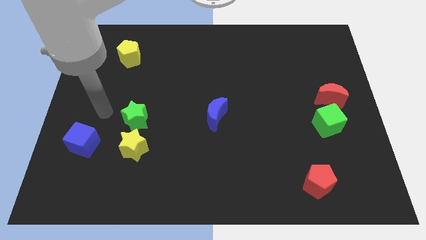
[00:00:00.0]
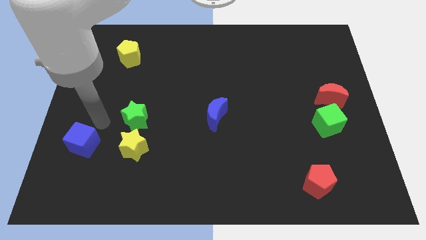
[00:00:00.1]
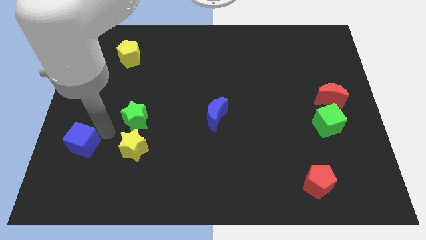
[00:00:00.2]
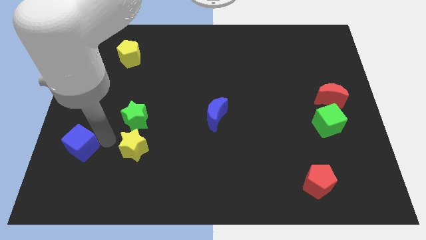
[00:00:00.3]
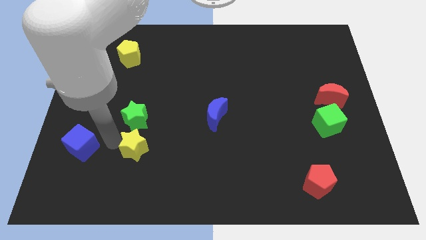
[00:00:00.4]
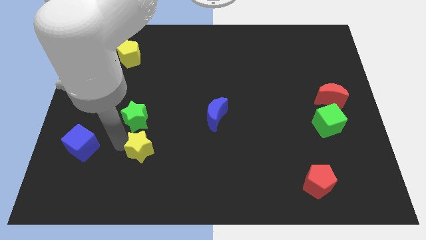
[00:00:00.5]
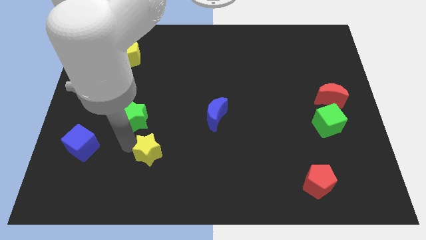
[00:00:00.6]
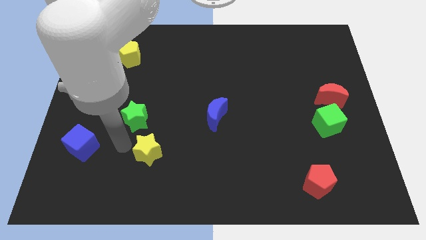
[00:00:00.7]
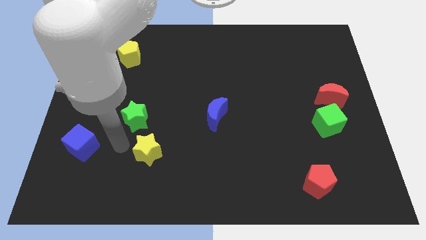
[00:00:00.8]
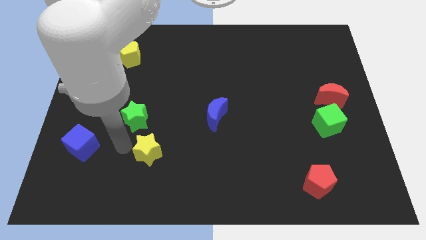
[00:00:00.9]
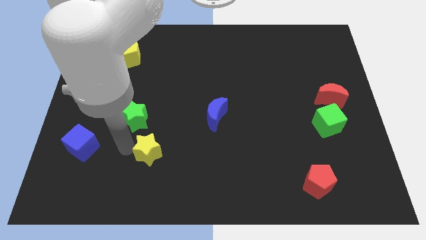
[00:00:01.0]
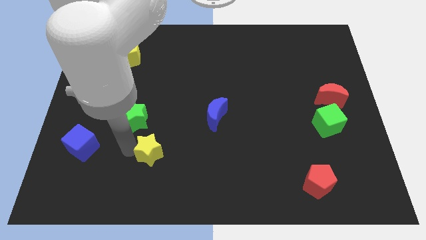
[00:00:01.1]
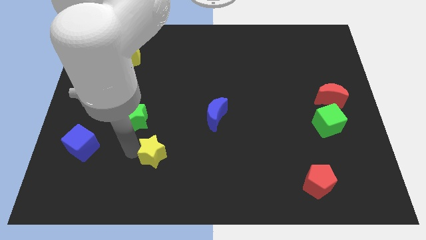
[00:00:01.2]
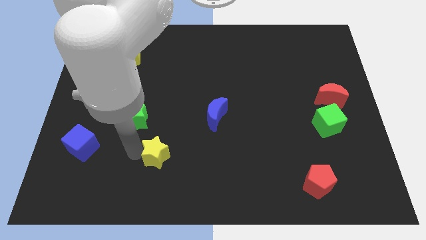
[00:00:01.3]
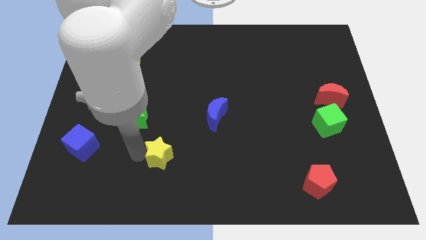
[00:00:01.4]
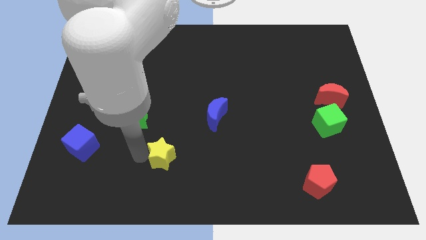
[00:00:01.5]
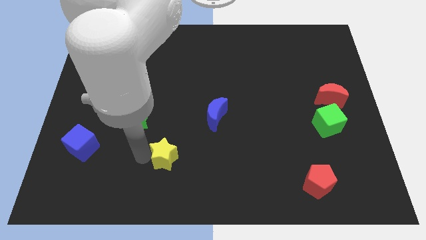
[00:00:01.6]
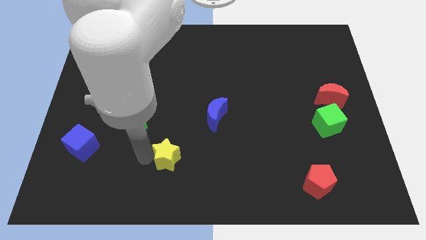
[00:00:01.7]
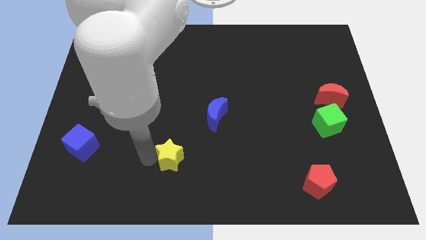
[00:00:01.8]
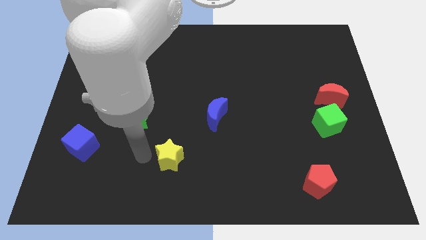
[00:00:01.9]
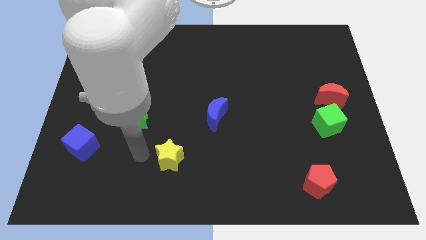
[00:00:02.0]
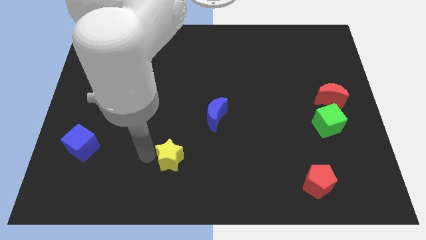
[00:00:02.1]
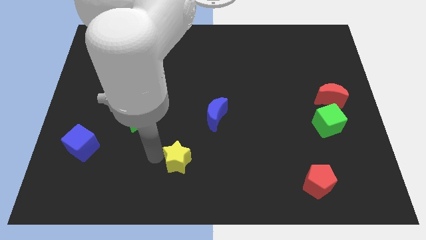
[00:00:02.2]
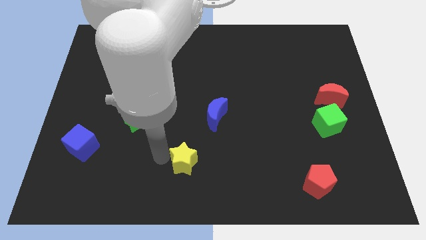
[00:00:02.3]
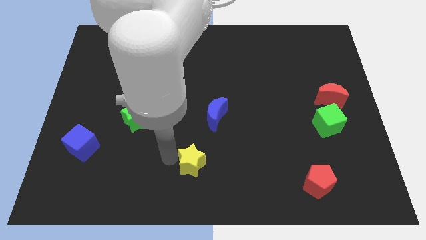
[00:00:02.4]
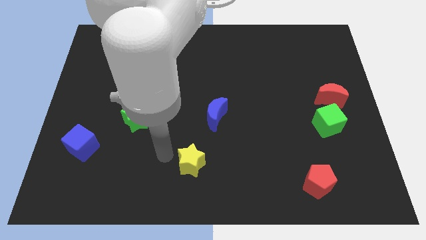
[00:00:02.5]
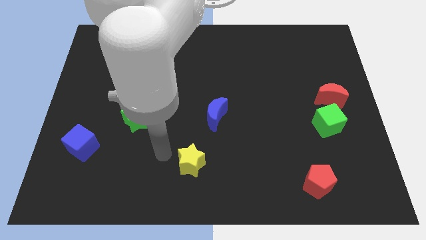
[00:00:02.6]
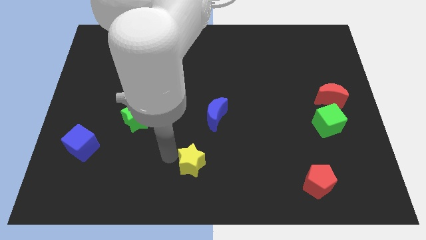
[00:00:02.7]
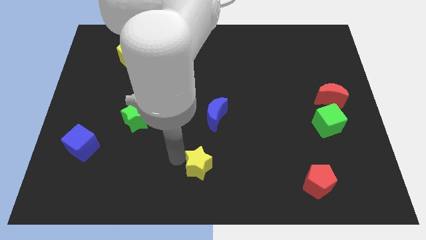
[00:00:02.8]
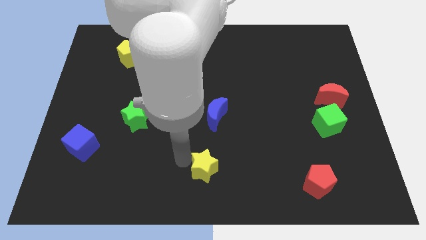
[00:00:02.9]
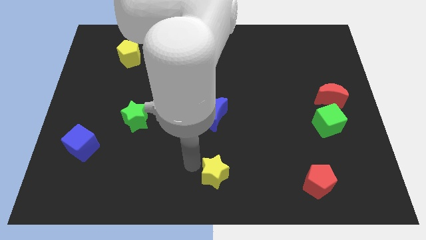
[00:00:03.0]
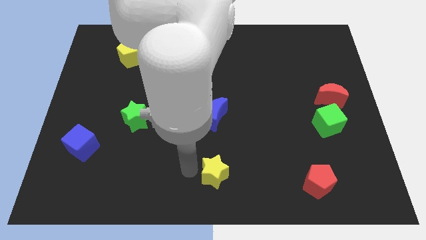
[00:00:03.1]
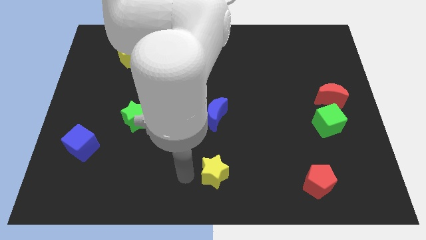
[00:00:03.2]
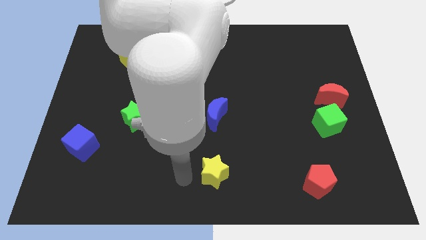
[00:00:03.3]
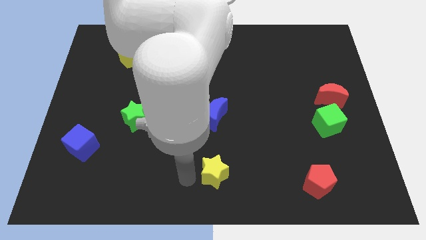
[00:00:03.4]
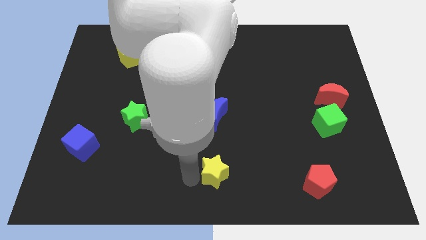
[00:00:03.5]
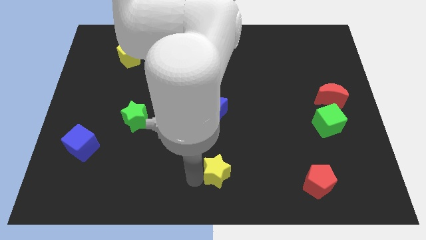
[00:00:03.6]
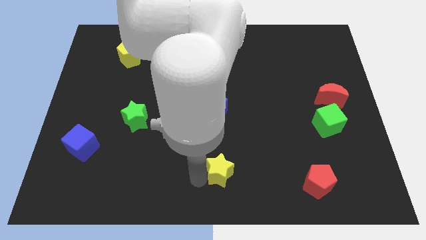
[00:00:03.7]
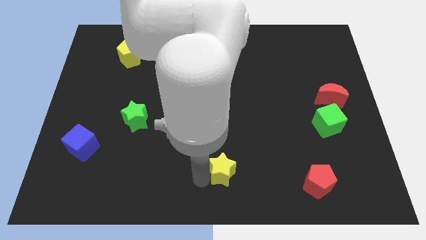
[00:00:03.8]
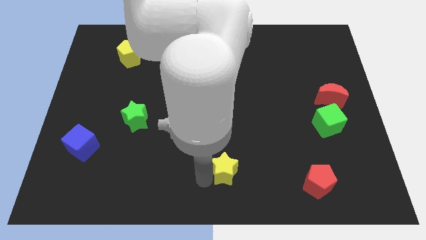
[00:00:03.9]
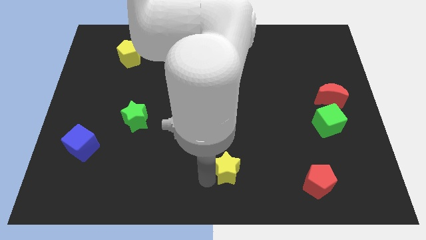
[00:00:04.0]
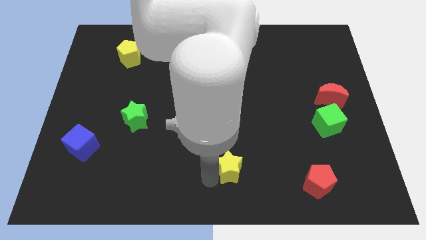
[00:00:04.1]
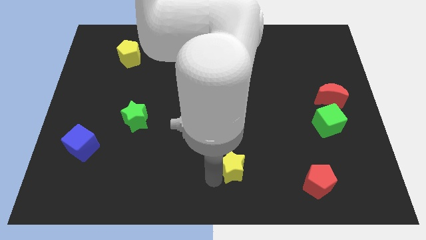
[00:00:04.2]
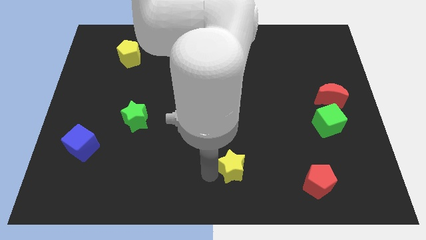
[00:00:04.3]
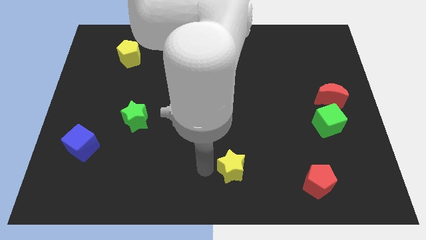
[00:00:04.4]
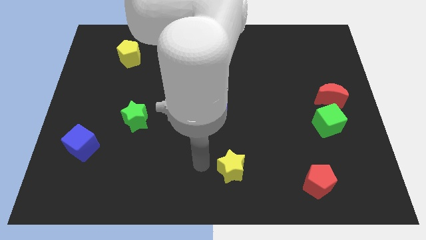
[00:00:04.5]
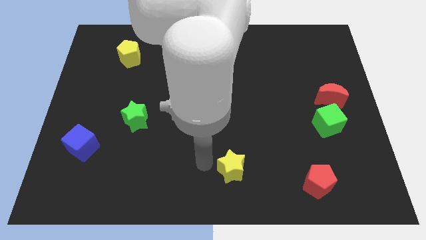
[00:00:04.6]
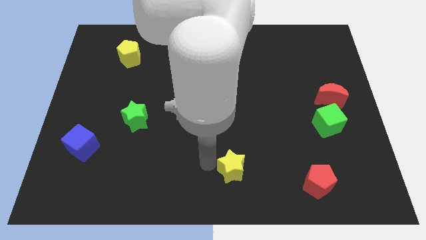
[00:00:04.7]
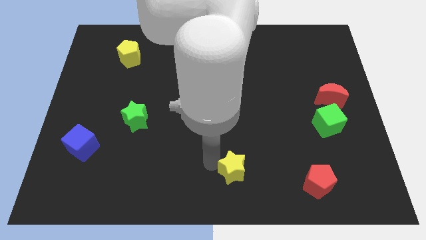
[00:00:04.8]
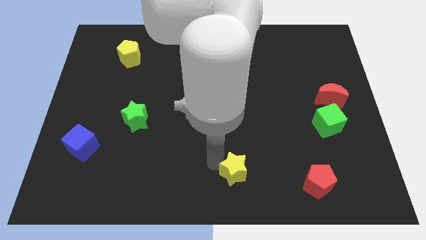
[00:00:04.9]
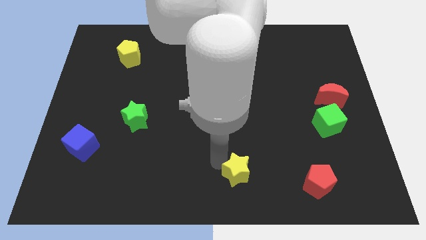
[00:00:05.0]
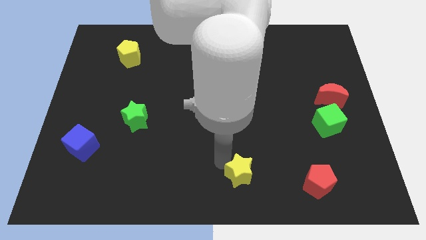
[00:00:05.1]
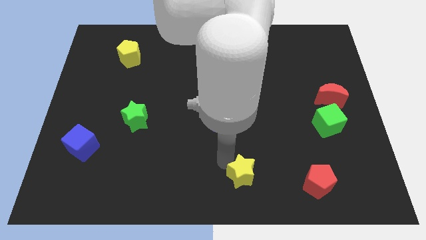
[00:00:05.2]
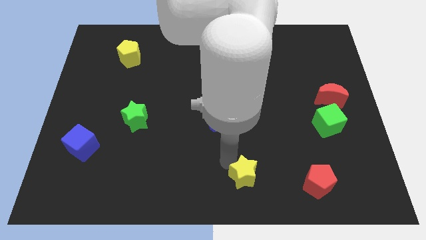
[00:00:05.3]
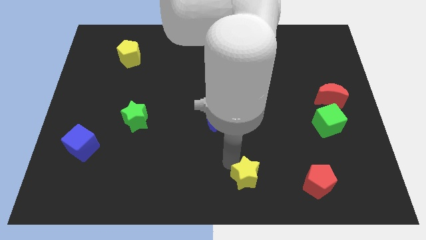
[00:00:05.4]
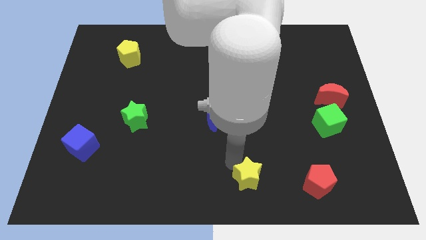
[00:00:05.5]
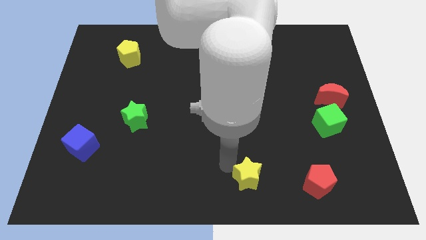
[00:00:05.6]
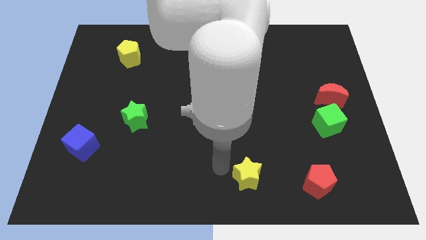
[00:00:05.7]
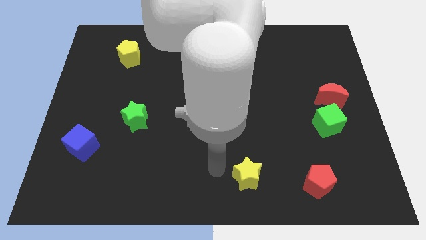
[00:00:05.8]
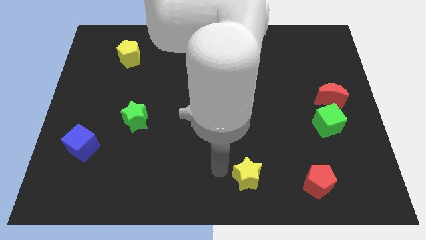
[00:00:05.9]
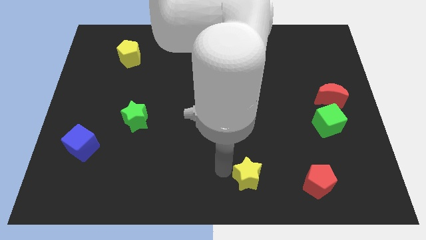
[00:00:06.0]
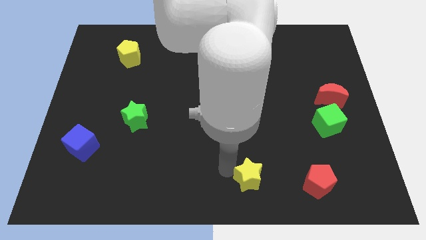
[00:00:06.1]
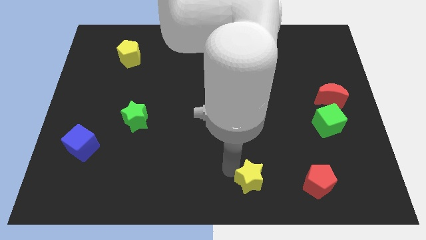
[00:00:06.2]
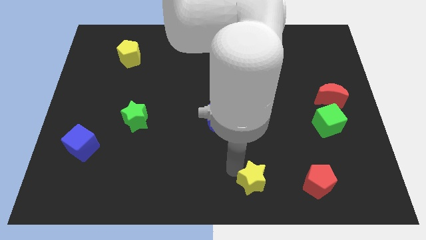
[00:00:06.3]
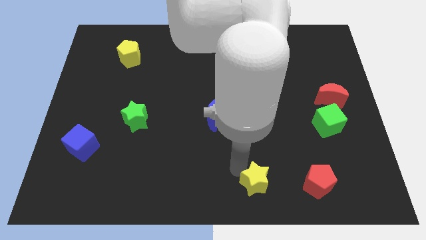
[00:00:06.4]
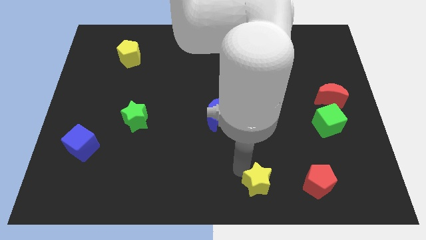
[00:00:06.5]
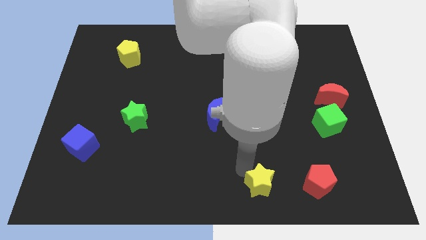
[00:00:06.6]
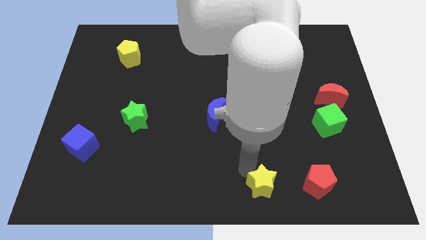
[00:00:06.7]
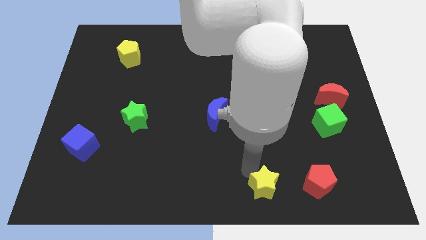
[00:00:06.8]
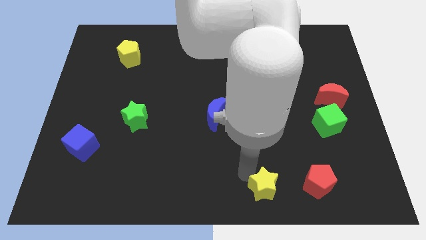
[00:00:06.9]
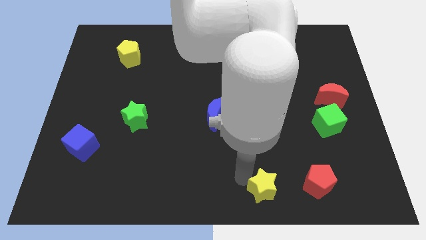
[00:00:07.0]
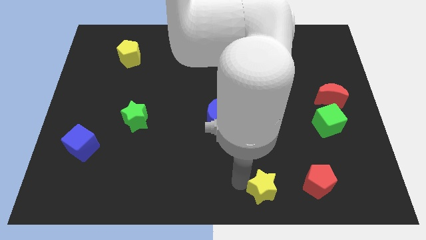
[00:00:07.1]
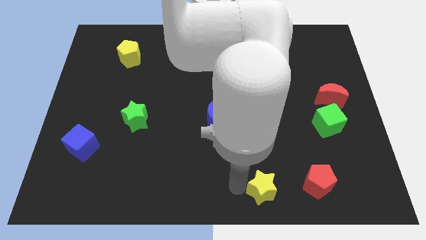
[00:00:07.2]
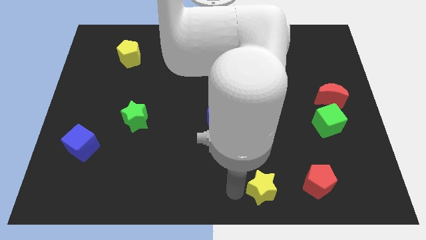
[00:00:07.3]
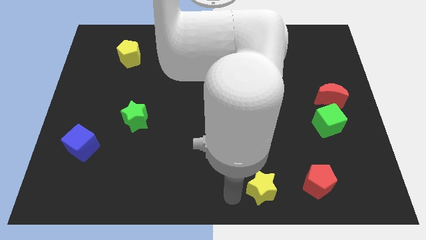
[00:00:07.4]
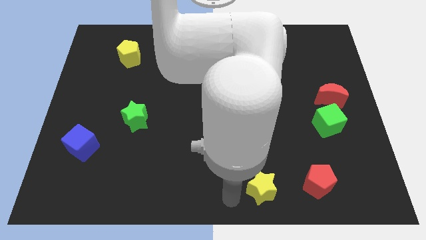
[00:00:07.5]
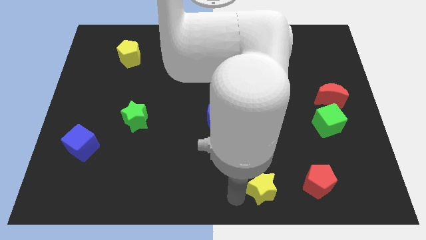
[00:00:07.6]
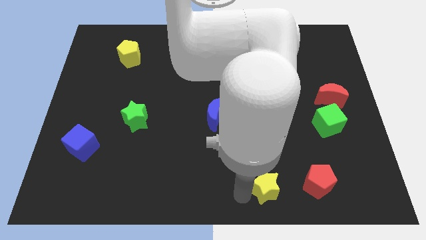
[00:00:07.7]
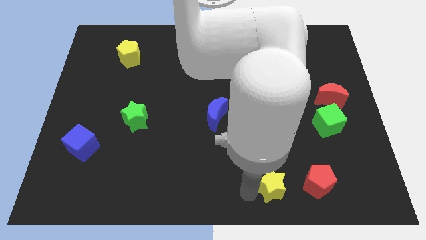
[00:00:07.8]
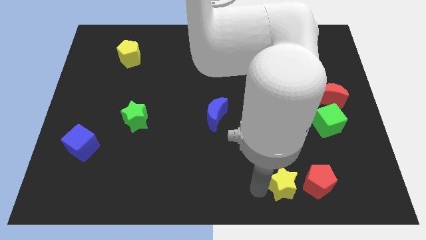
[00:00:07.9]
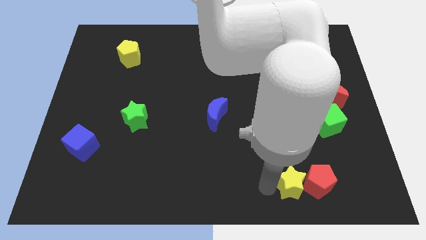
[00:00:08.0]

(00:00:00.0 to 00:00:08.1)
push the yellow star towards the red pentagon
